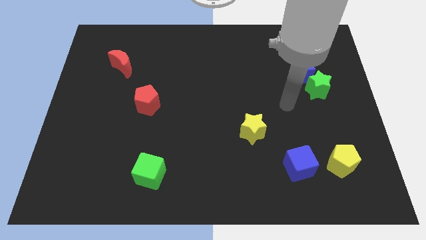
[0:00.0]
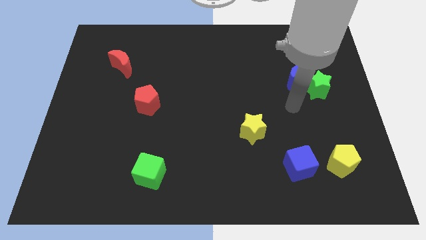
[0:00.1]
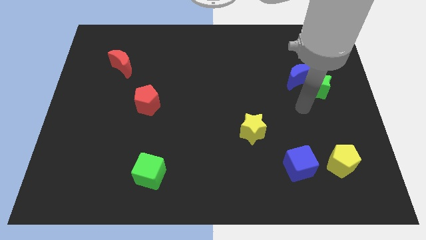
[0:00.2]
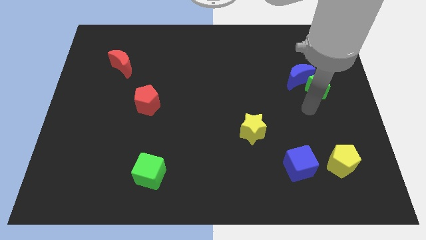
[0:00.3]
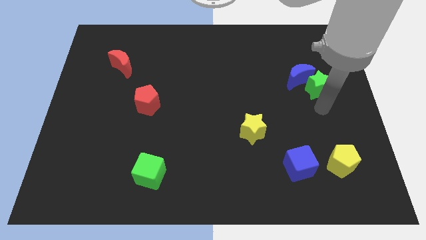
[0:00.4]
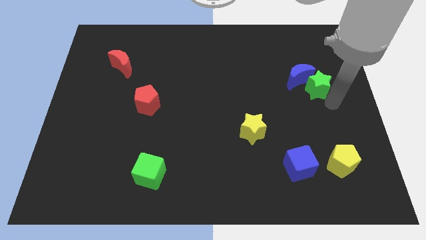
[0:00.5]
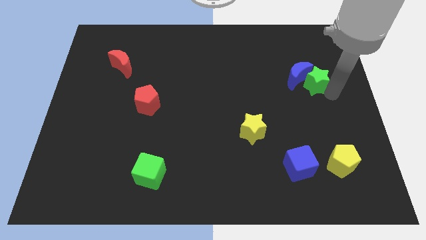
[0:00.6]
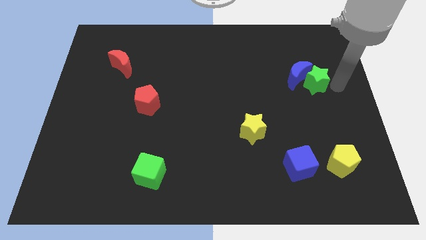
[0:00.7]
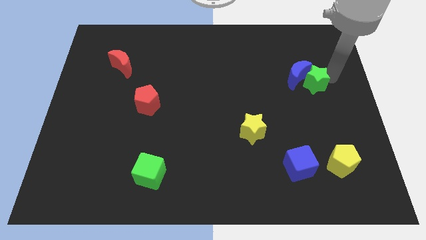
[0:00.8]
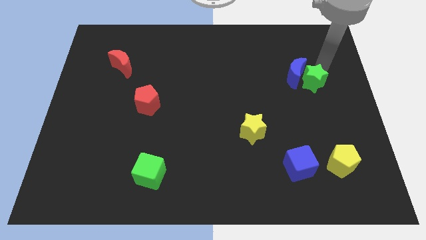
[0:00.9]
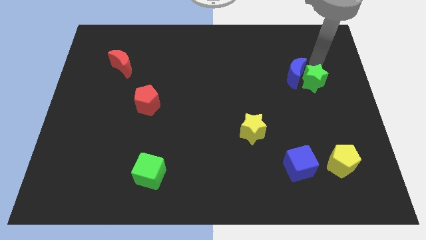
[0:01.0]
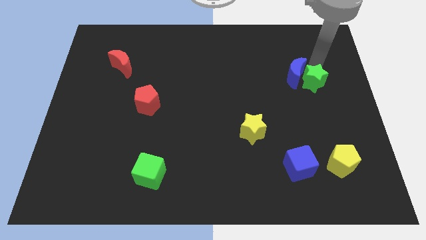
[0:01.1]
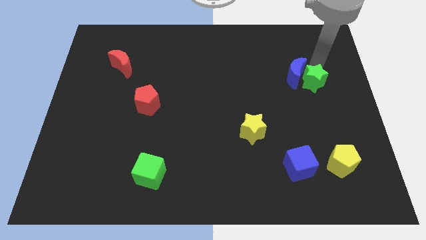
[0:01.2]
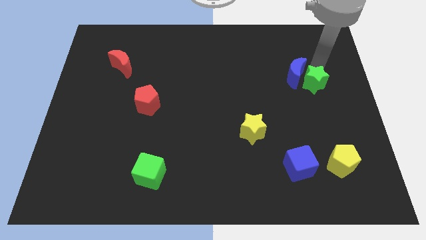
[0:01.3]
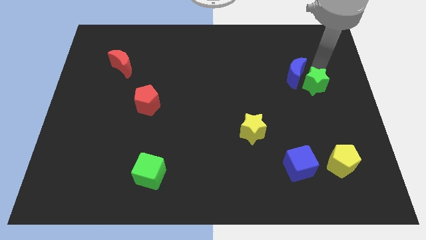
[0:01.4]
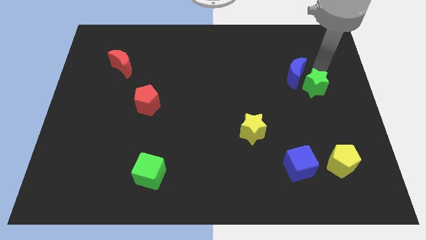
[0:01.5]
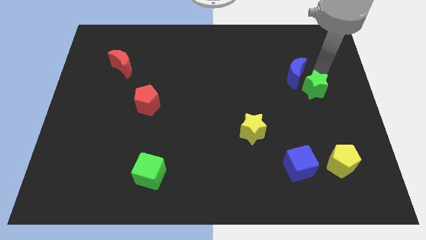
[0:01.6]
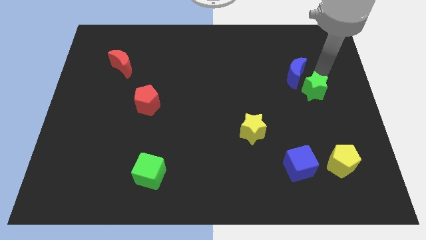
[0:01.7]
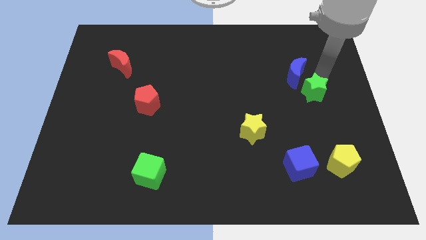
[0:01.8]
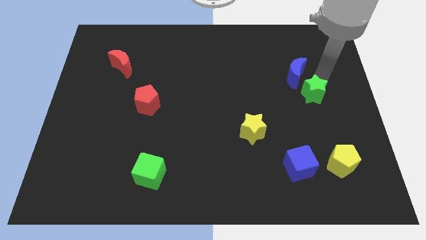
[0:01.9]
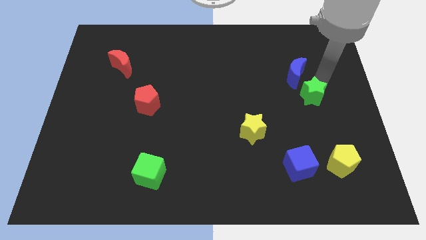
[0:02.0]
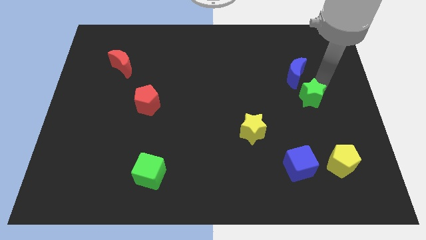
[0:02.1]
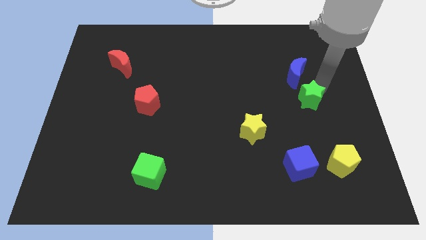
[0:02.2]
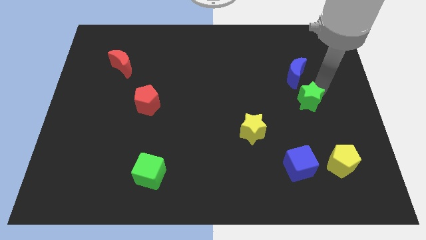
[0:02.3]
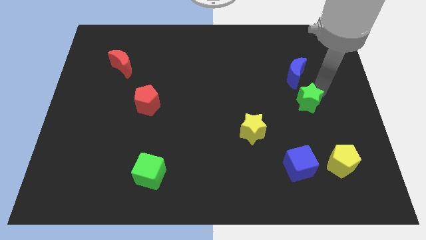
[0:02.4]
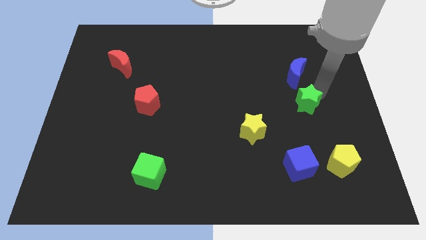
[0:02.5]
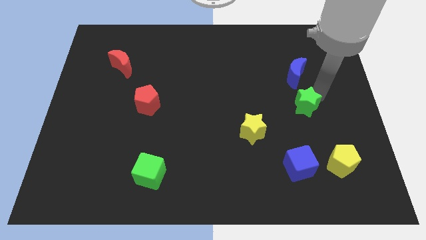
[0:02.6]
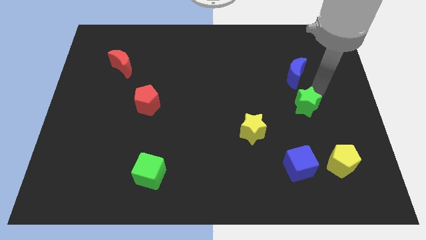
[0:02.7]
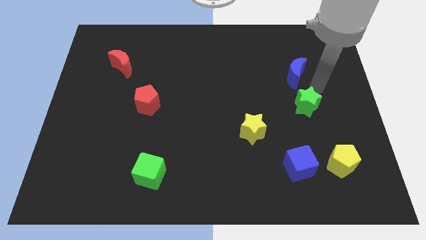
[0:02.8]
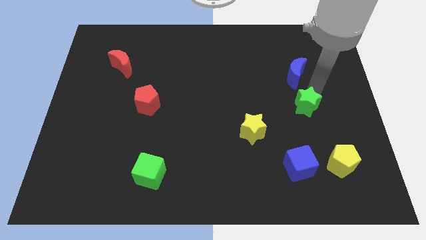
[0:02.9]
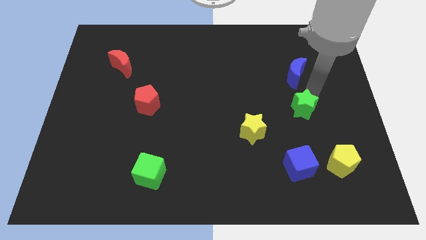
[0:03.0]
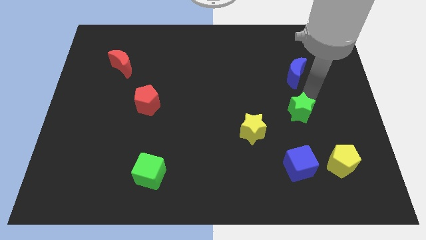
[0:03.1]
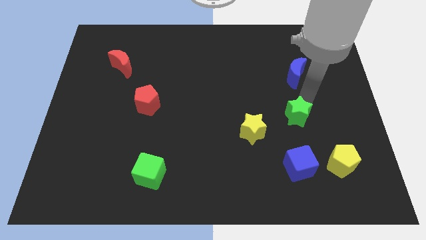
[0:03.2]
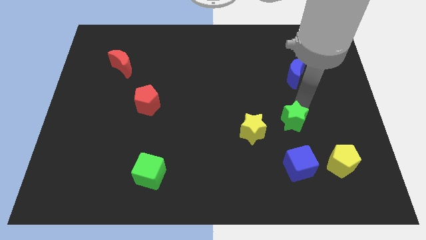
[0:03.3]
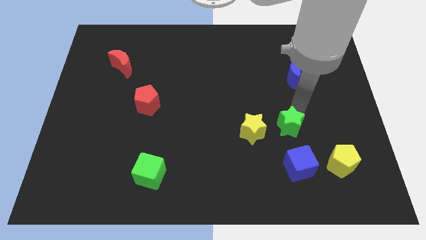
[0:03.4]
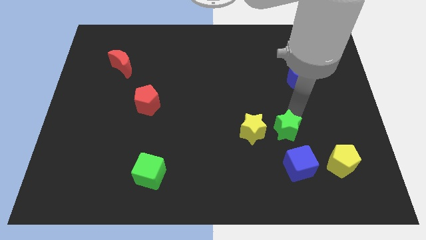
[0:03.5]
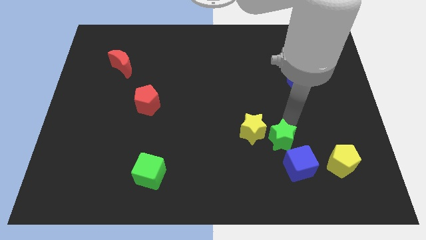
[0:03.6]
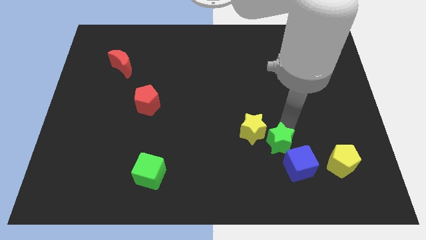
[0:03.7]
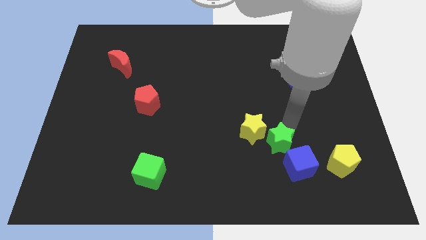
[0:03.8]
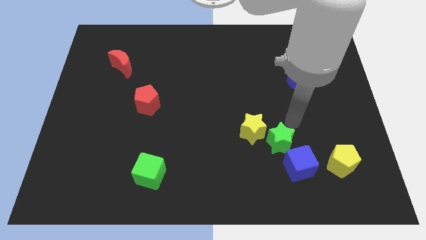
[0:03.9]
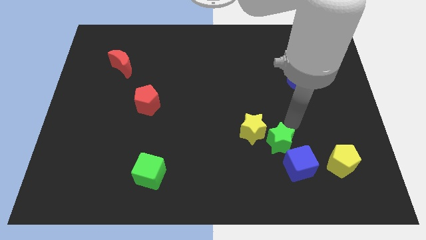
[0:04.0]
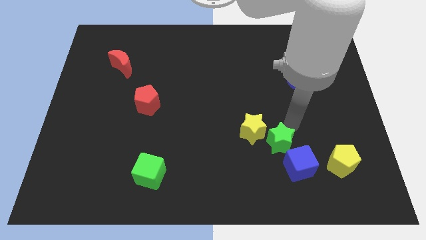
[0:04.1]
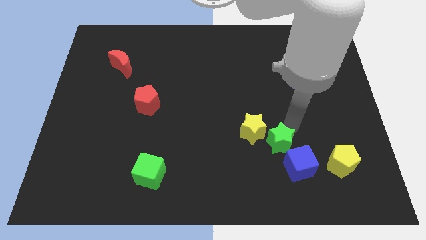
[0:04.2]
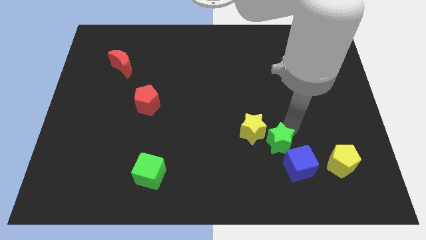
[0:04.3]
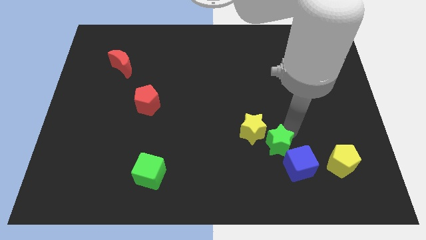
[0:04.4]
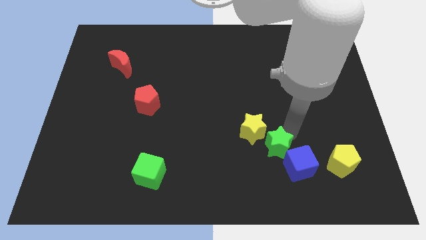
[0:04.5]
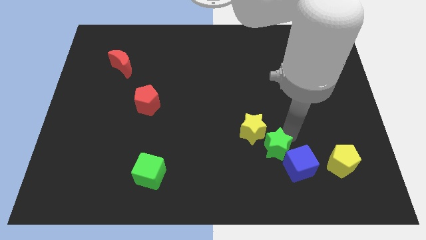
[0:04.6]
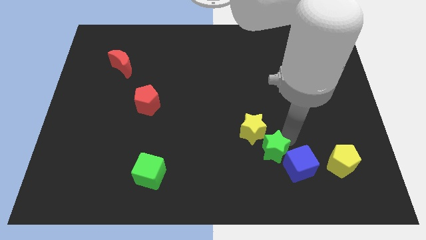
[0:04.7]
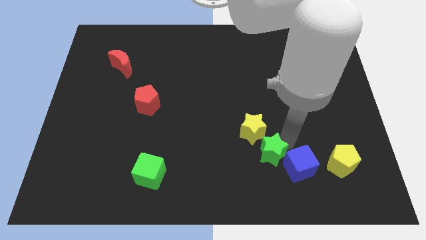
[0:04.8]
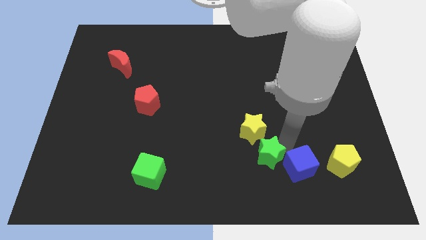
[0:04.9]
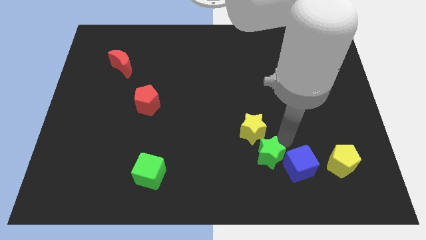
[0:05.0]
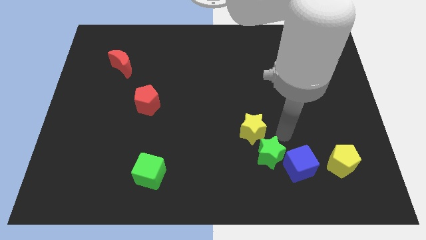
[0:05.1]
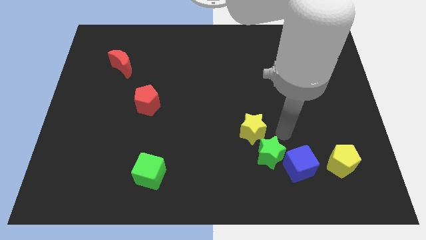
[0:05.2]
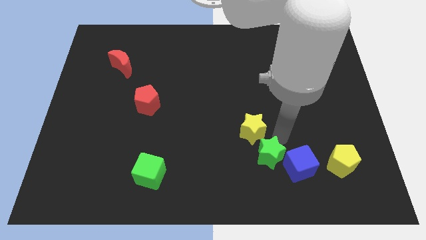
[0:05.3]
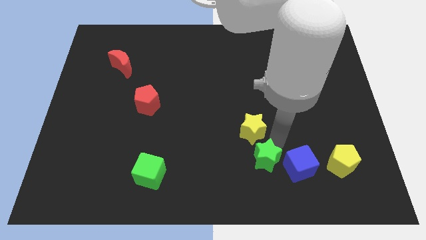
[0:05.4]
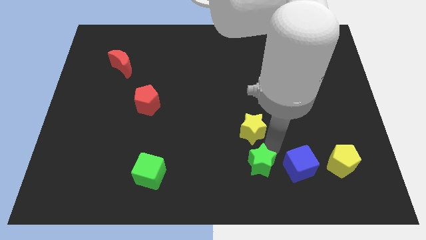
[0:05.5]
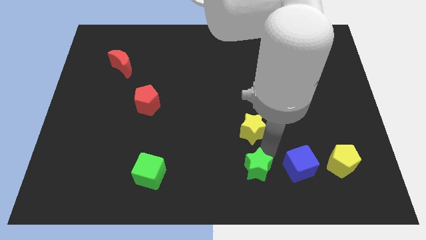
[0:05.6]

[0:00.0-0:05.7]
push the green star to the bottom

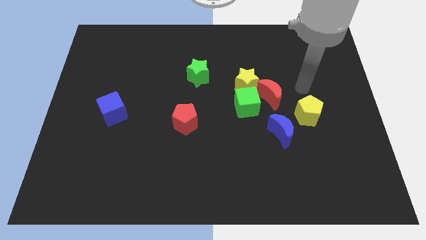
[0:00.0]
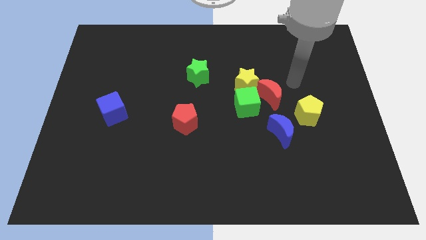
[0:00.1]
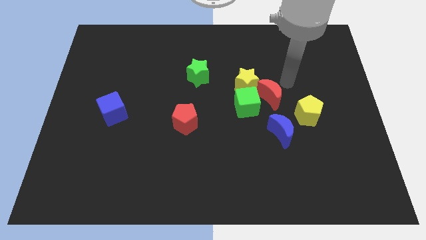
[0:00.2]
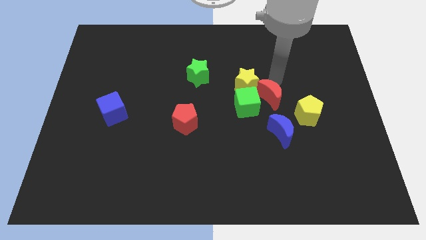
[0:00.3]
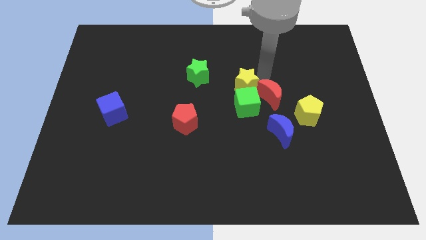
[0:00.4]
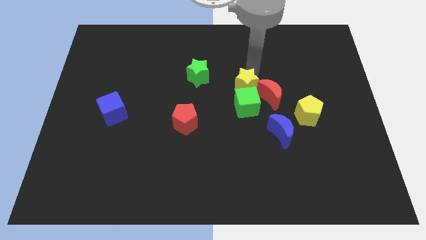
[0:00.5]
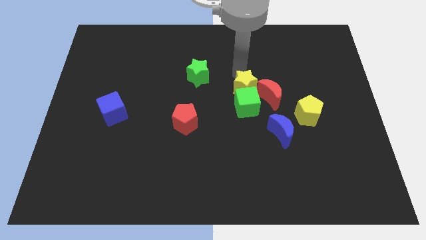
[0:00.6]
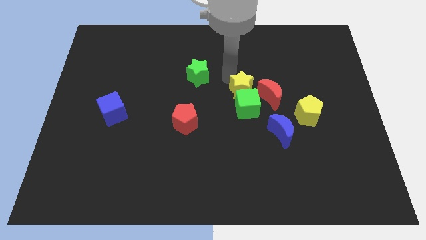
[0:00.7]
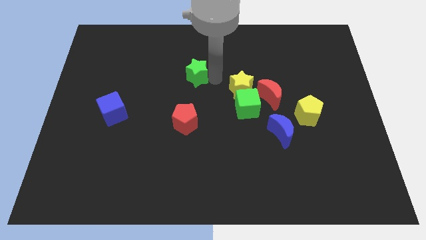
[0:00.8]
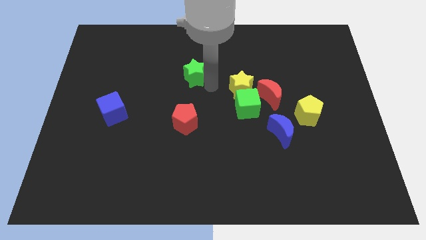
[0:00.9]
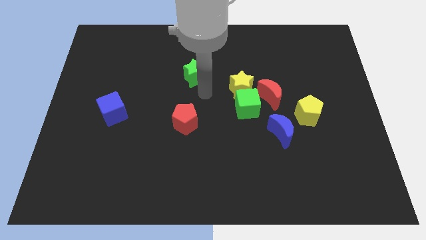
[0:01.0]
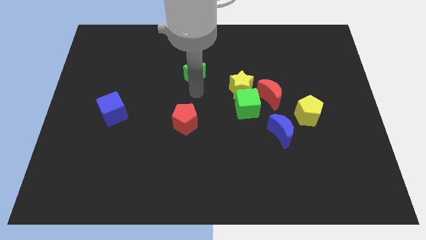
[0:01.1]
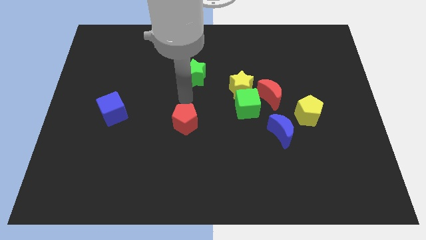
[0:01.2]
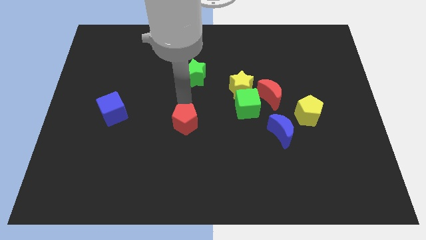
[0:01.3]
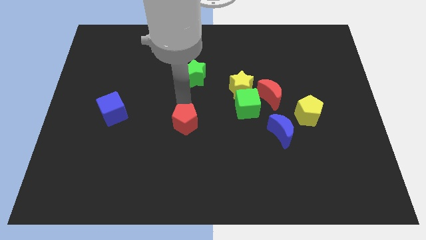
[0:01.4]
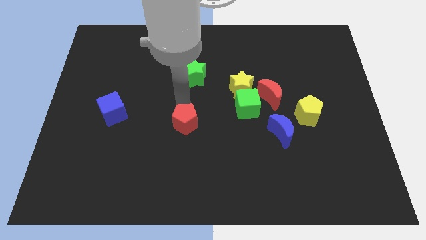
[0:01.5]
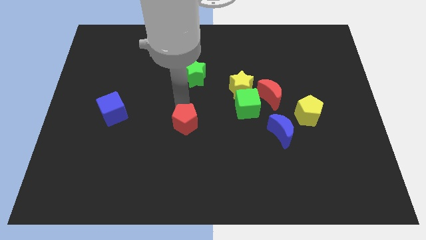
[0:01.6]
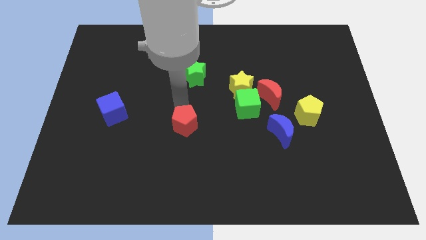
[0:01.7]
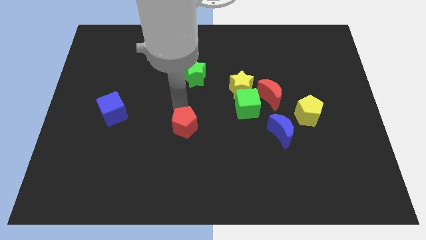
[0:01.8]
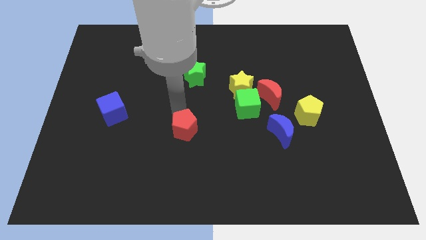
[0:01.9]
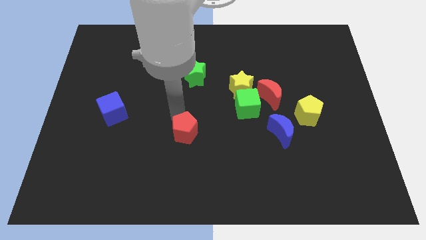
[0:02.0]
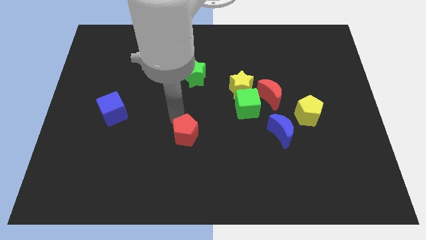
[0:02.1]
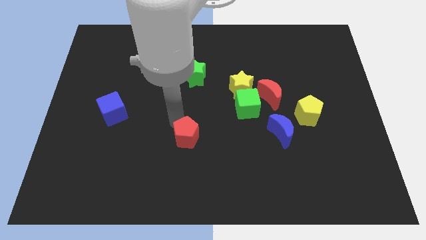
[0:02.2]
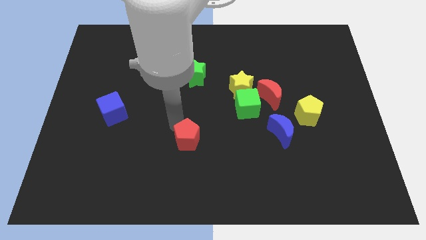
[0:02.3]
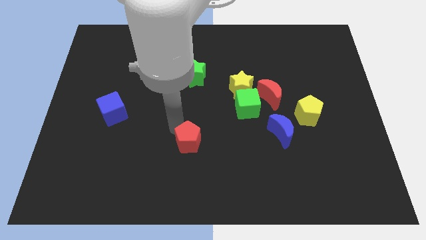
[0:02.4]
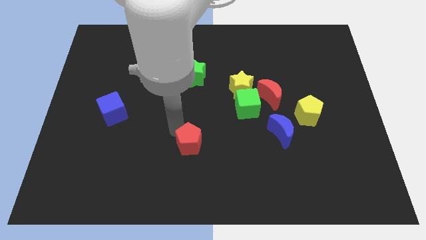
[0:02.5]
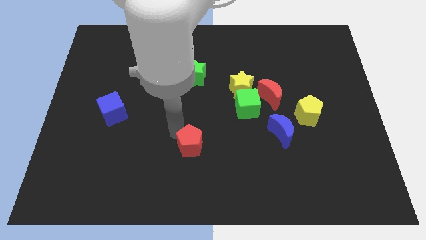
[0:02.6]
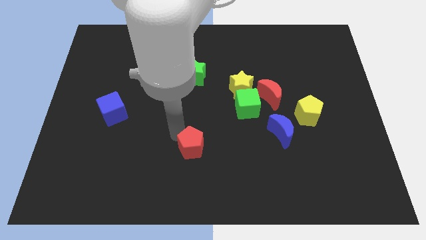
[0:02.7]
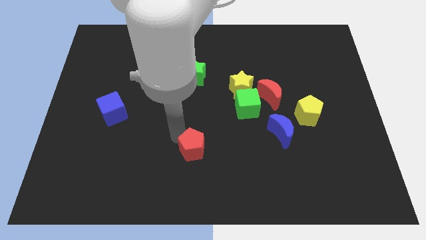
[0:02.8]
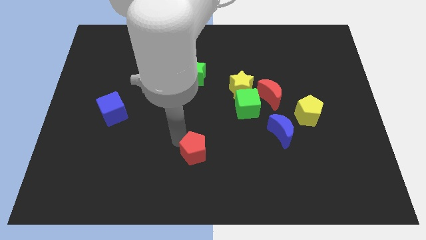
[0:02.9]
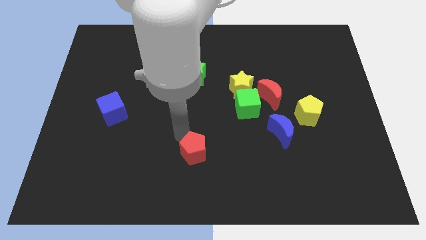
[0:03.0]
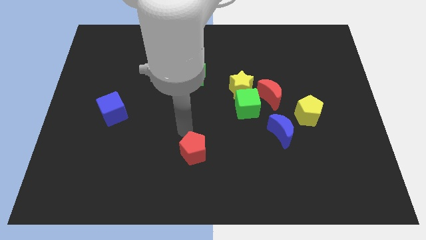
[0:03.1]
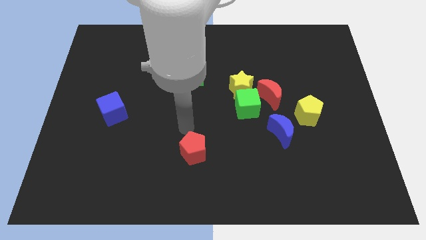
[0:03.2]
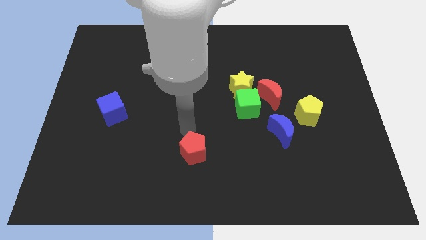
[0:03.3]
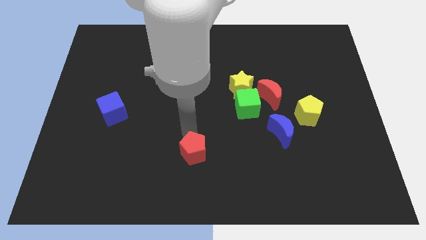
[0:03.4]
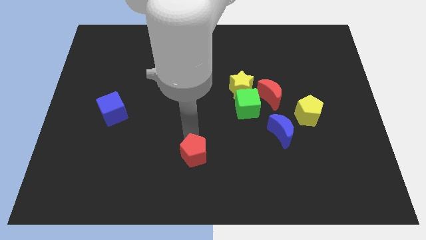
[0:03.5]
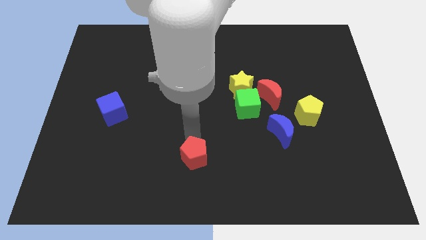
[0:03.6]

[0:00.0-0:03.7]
slide the red pentagon to the bottom side
